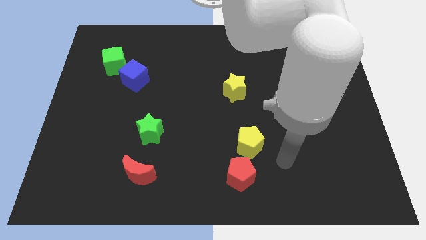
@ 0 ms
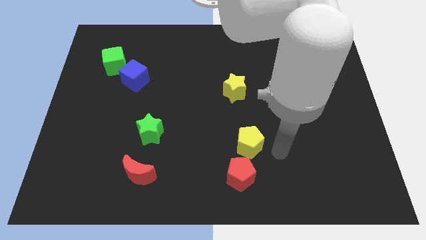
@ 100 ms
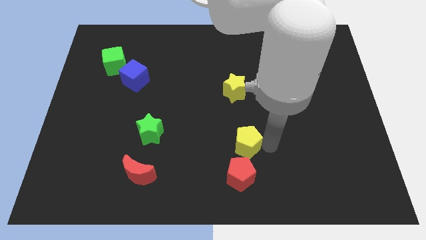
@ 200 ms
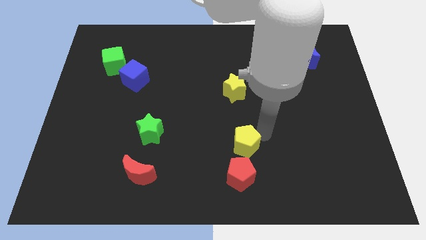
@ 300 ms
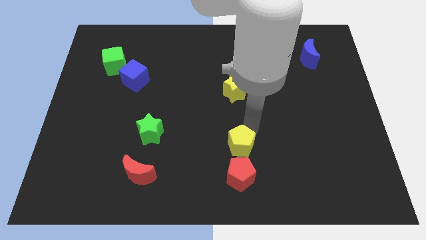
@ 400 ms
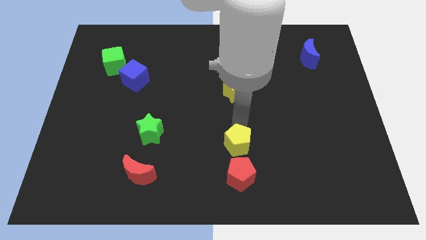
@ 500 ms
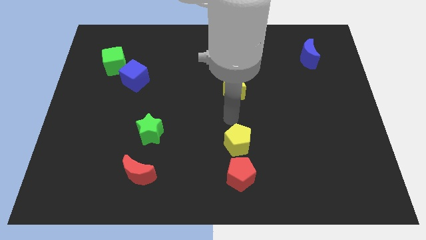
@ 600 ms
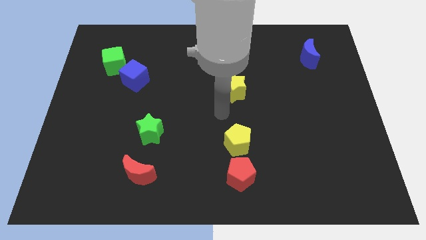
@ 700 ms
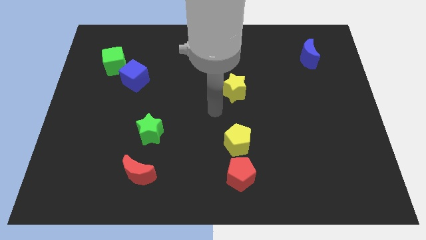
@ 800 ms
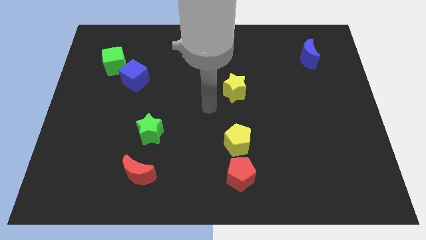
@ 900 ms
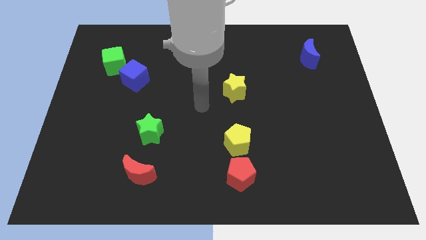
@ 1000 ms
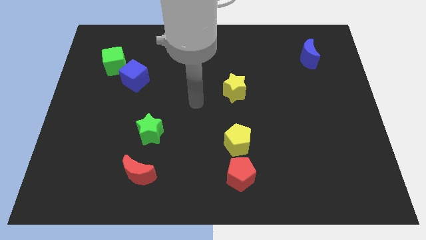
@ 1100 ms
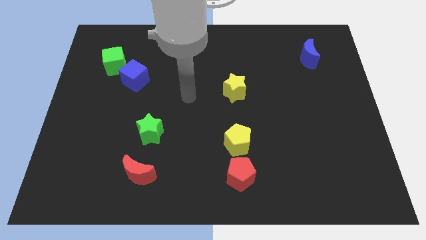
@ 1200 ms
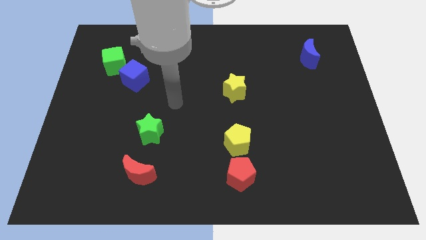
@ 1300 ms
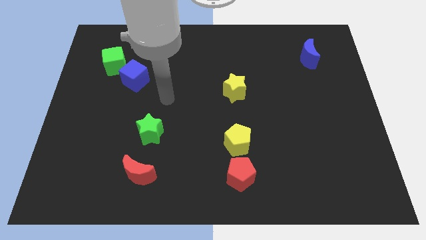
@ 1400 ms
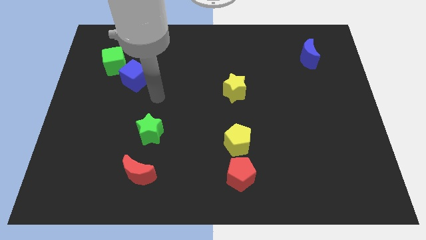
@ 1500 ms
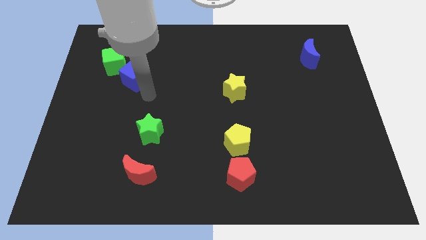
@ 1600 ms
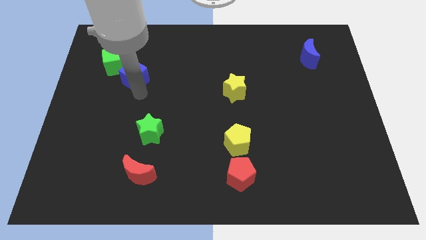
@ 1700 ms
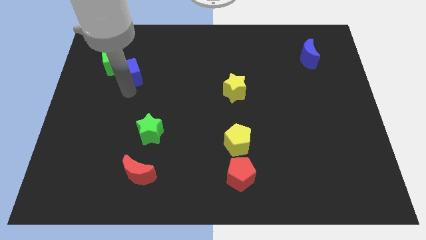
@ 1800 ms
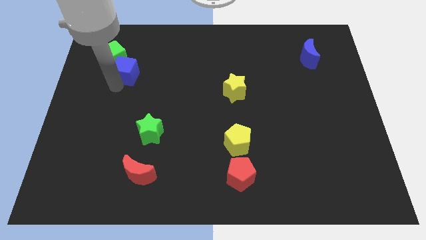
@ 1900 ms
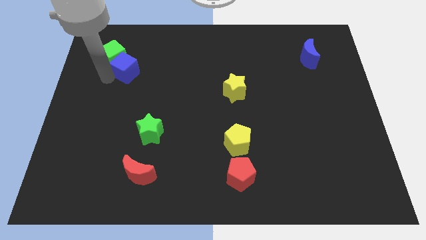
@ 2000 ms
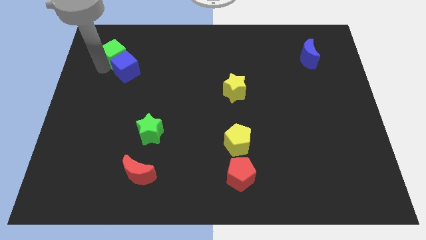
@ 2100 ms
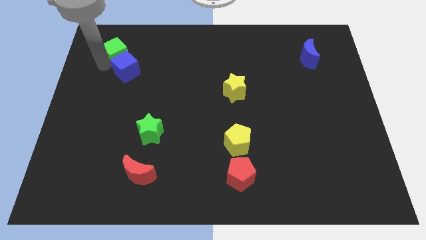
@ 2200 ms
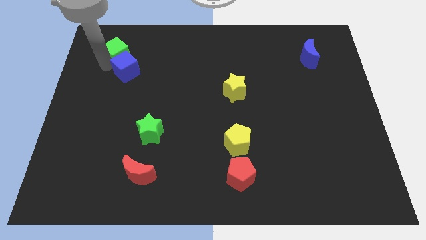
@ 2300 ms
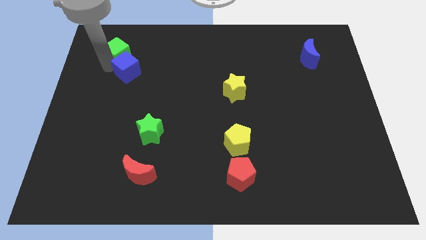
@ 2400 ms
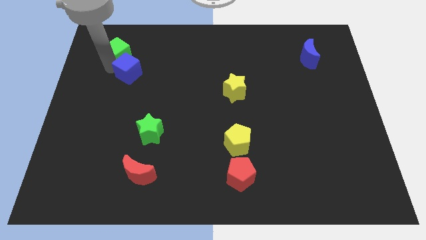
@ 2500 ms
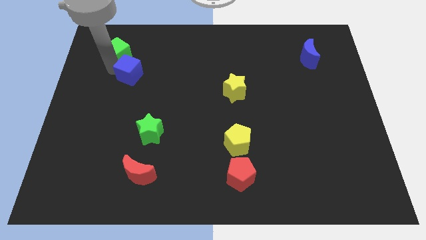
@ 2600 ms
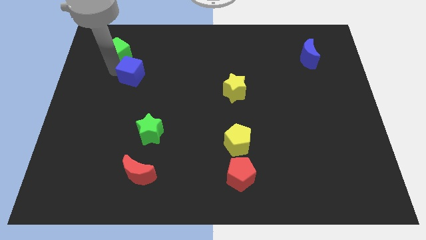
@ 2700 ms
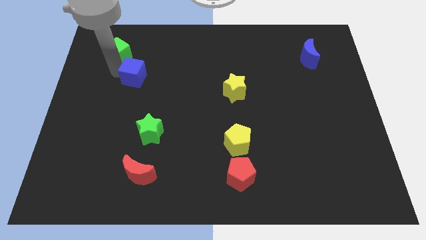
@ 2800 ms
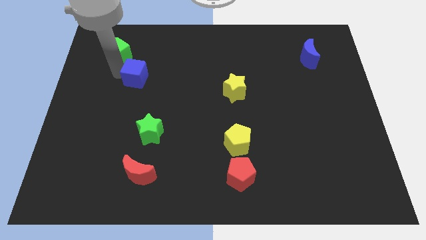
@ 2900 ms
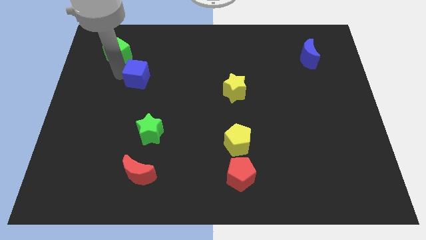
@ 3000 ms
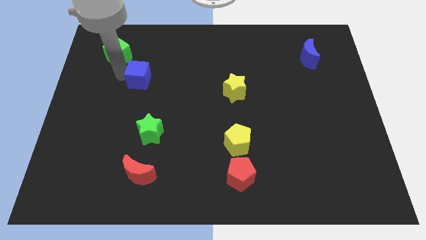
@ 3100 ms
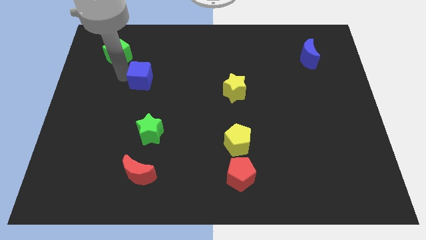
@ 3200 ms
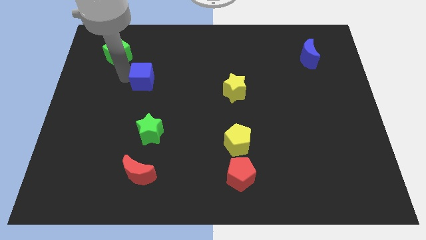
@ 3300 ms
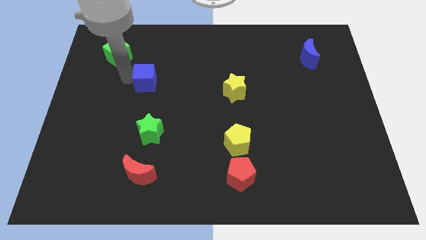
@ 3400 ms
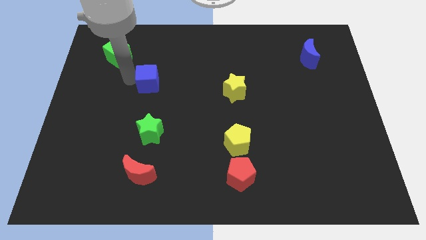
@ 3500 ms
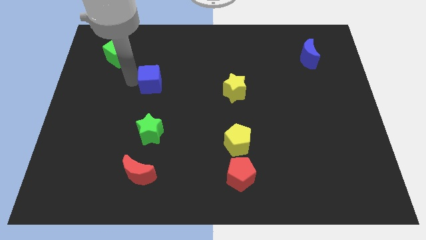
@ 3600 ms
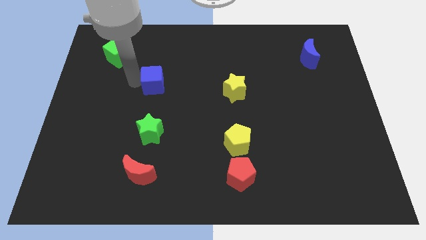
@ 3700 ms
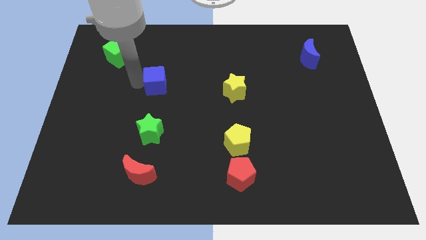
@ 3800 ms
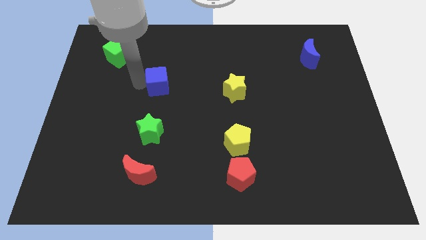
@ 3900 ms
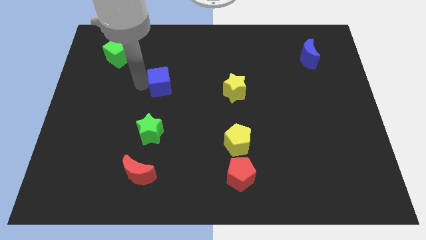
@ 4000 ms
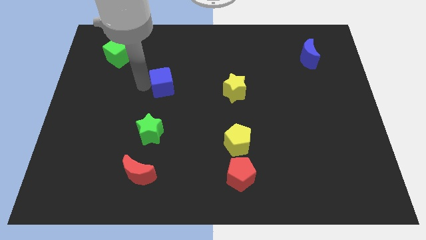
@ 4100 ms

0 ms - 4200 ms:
move the blue cube a little to the right

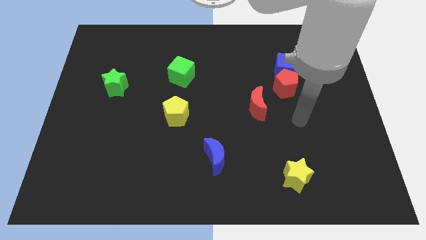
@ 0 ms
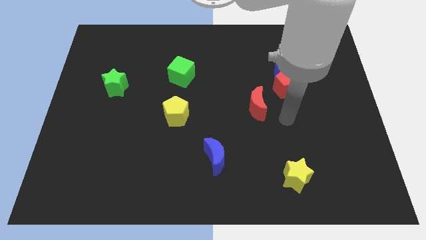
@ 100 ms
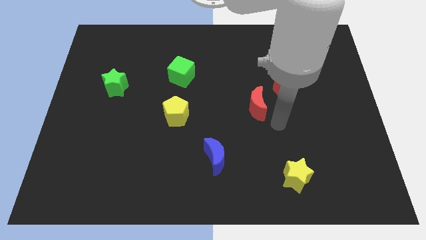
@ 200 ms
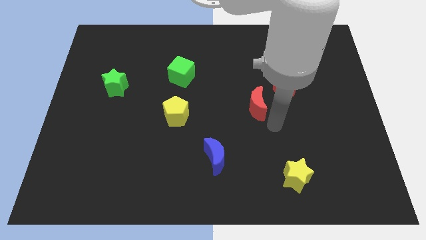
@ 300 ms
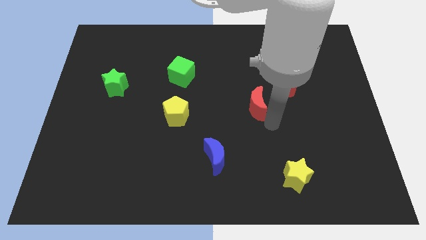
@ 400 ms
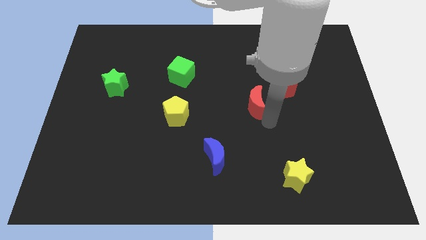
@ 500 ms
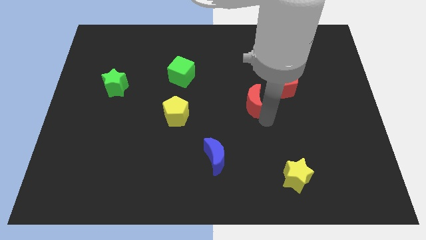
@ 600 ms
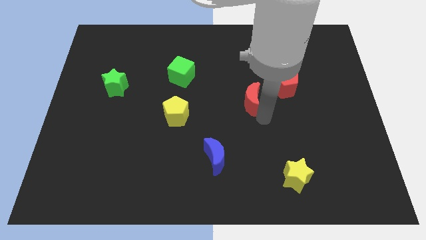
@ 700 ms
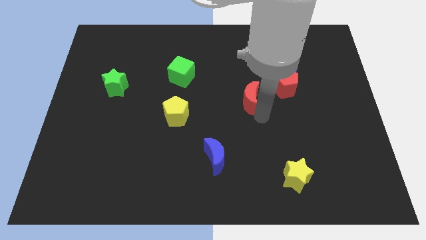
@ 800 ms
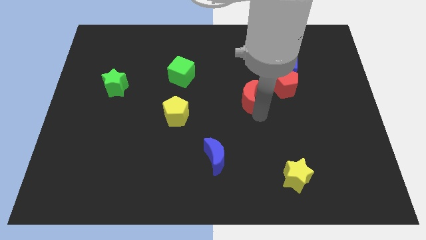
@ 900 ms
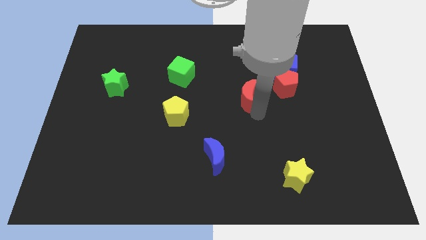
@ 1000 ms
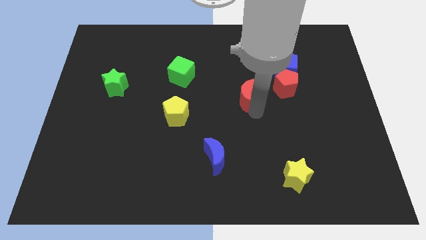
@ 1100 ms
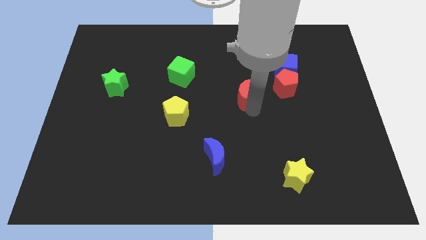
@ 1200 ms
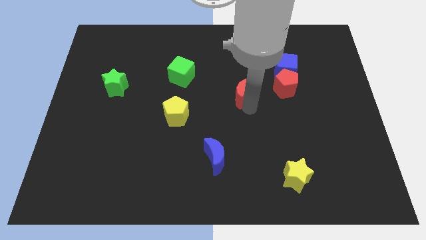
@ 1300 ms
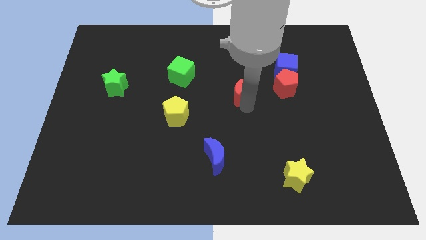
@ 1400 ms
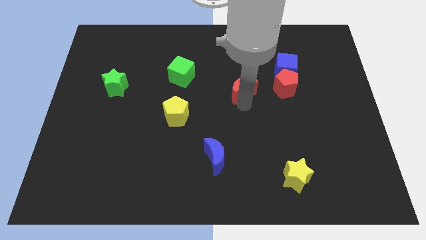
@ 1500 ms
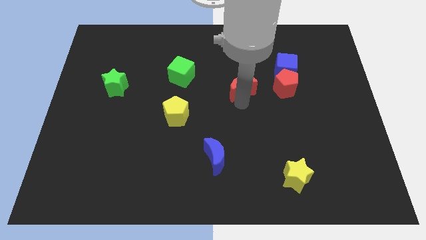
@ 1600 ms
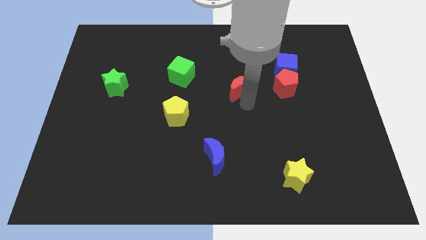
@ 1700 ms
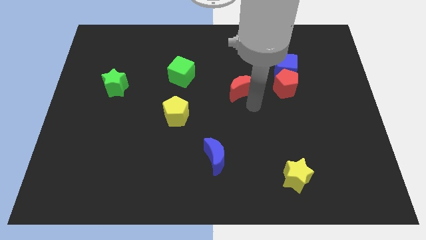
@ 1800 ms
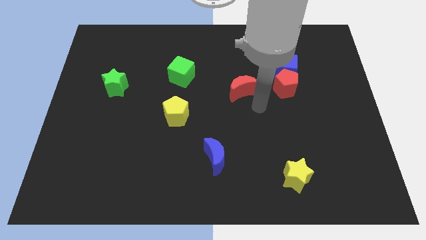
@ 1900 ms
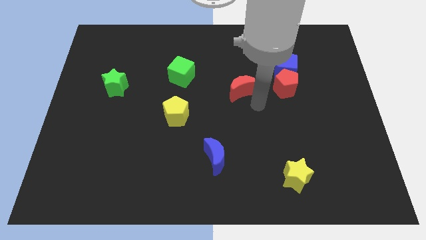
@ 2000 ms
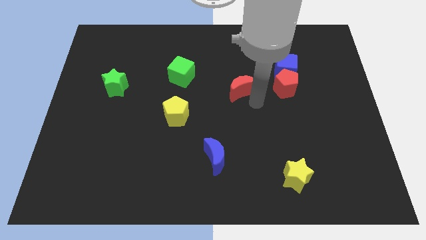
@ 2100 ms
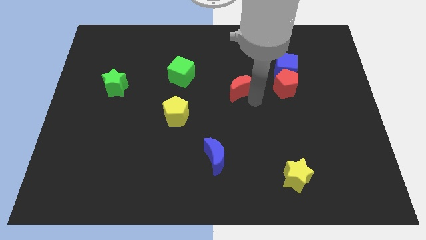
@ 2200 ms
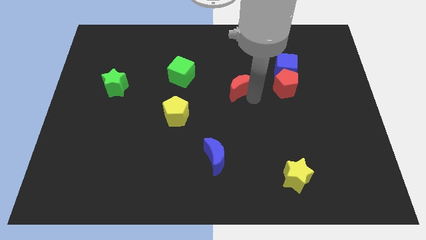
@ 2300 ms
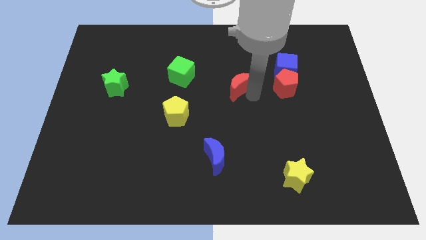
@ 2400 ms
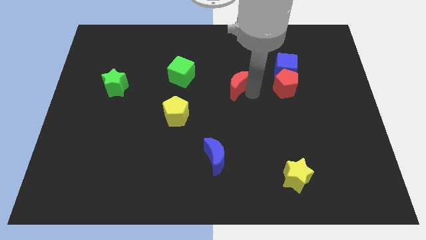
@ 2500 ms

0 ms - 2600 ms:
push the red moon up and then to the left somewhat

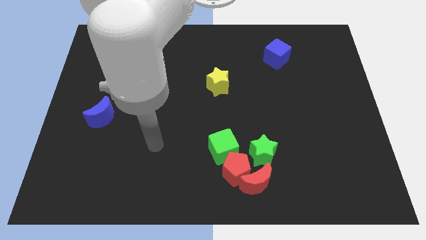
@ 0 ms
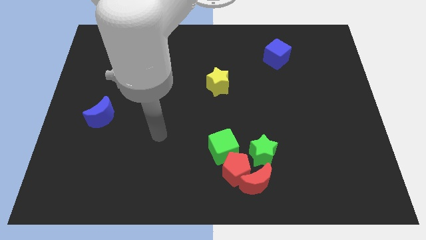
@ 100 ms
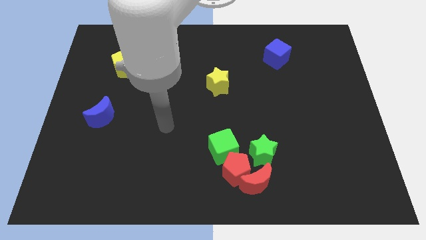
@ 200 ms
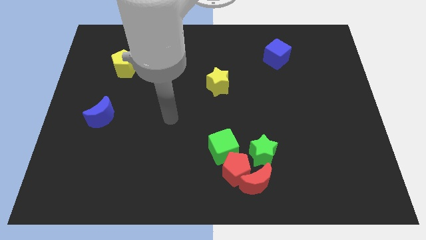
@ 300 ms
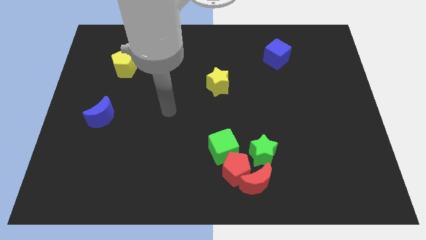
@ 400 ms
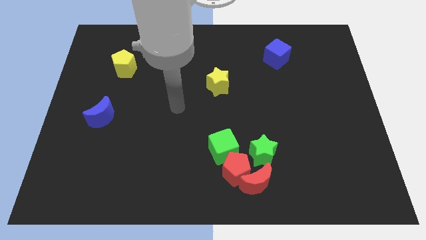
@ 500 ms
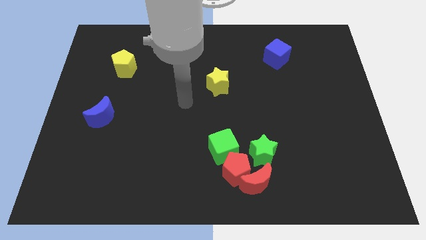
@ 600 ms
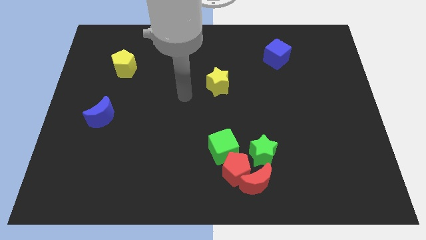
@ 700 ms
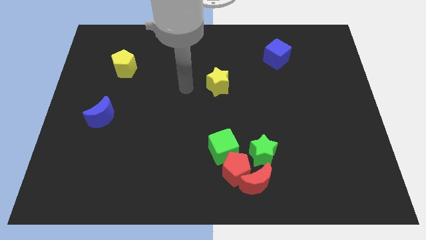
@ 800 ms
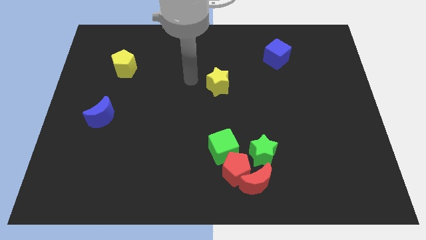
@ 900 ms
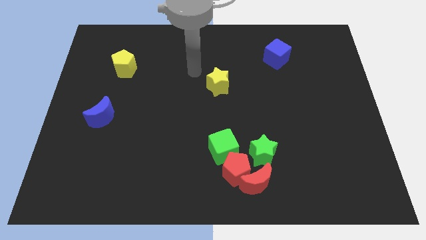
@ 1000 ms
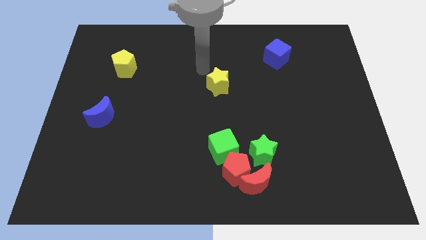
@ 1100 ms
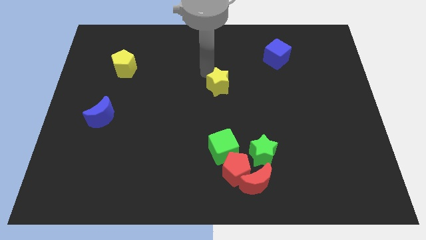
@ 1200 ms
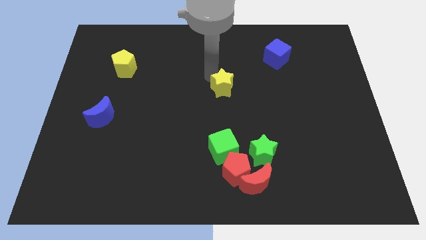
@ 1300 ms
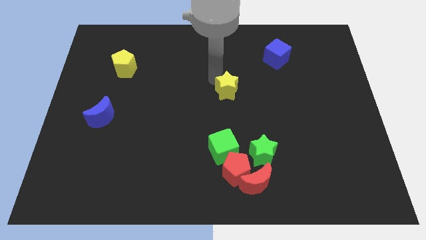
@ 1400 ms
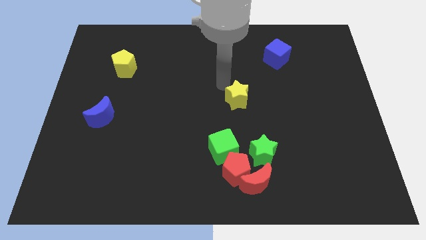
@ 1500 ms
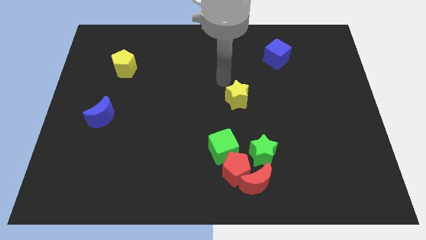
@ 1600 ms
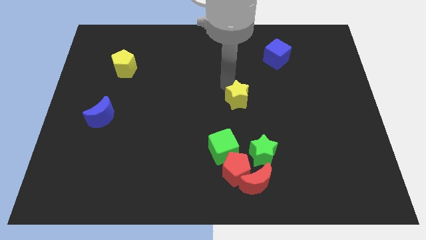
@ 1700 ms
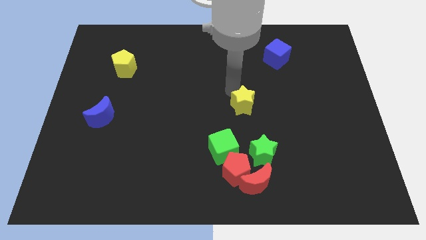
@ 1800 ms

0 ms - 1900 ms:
push the yellow star diagonally down and right a little bit
